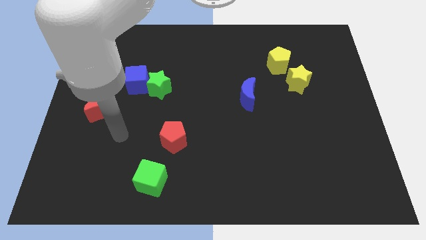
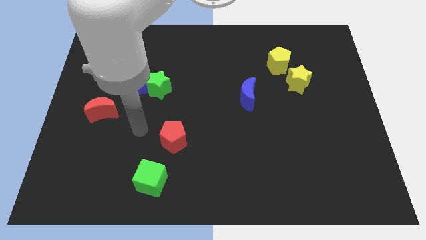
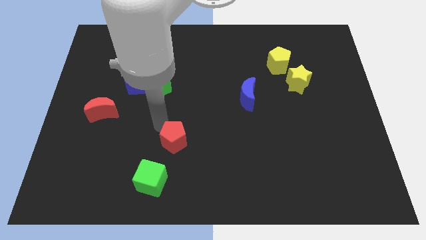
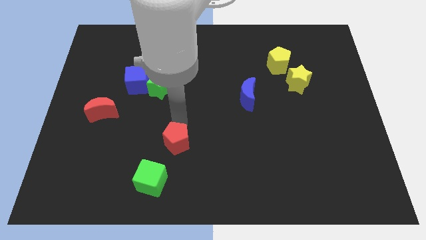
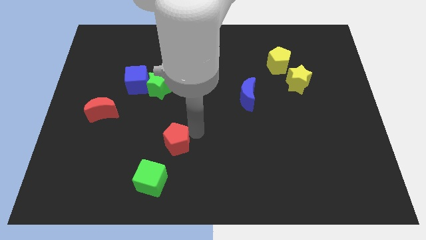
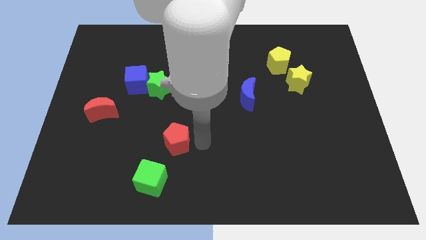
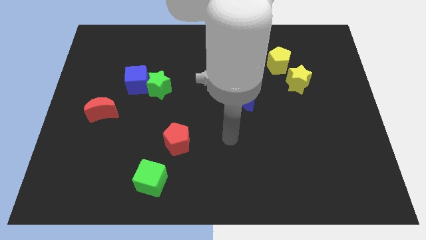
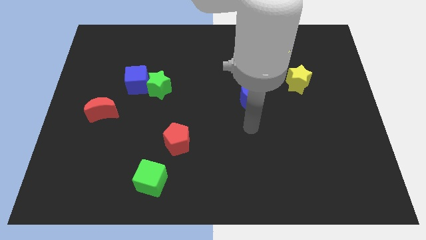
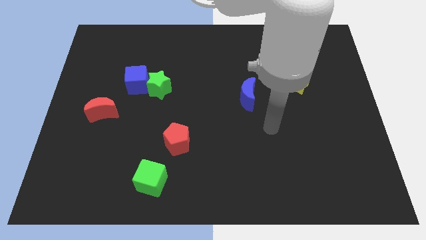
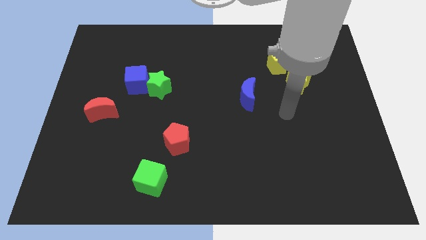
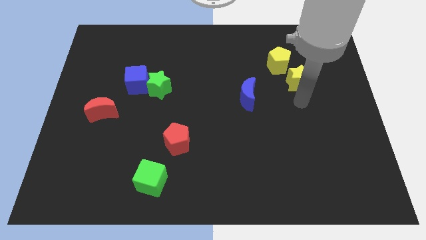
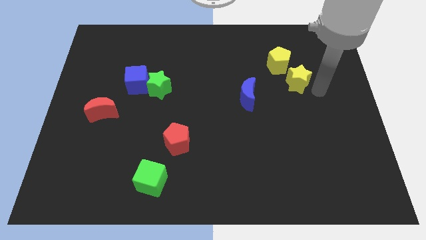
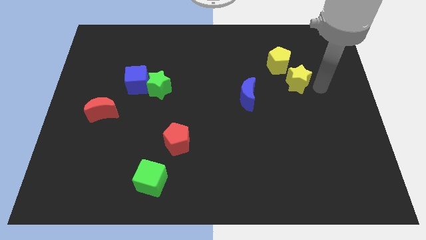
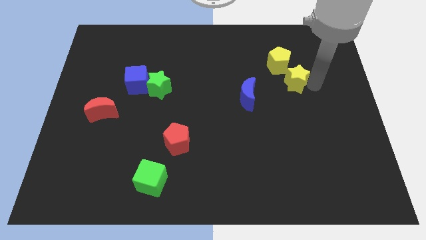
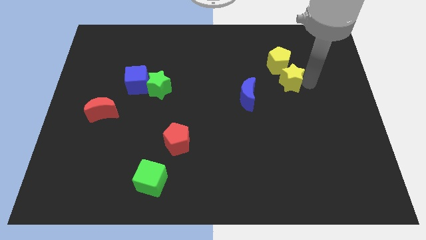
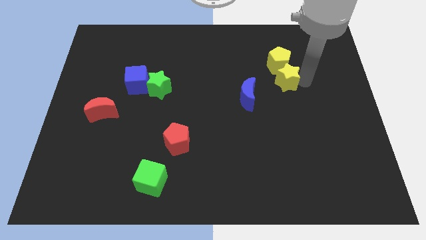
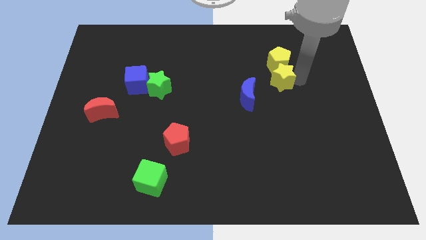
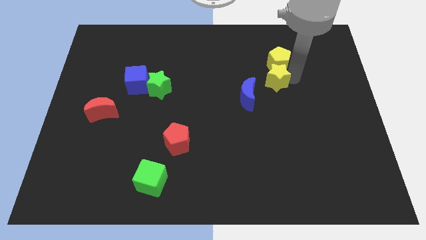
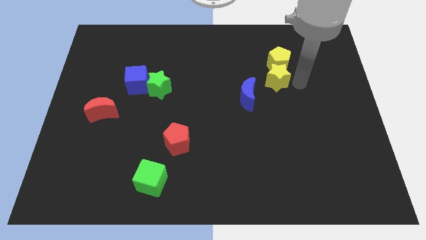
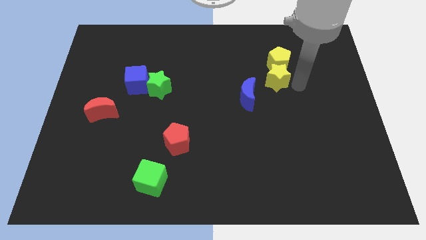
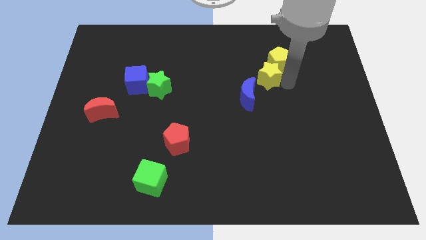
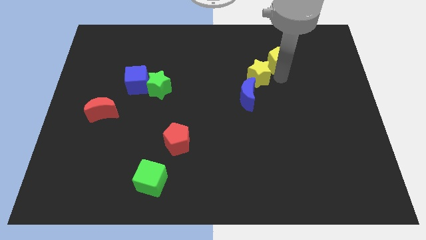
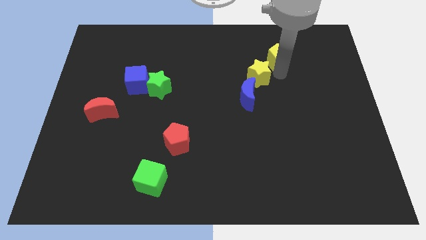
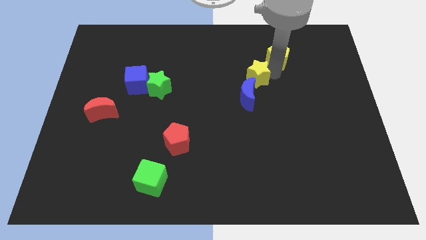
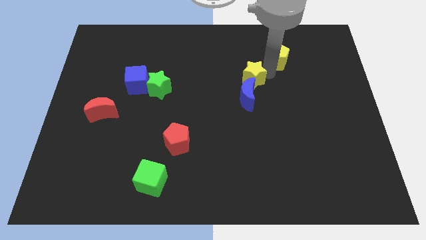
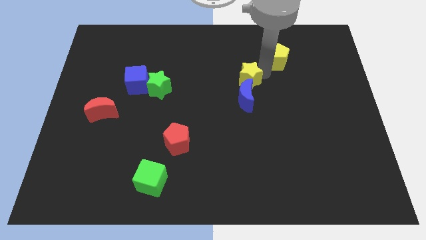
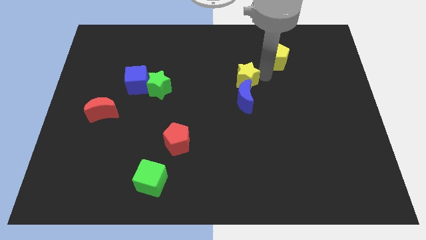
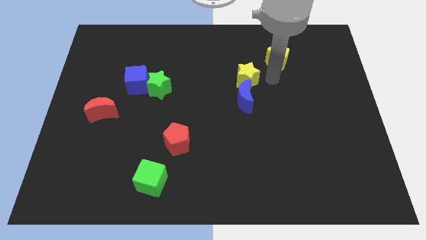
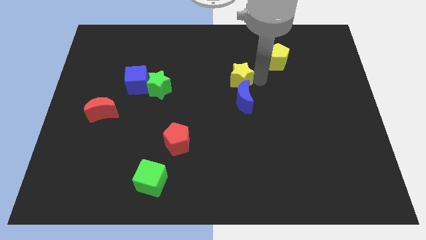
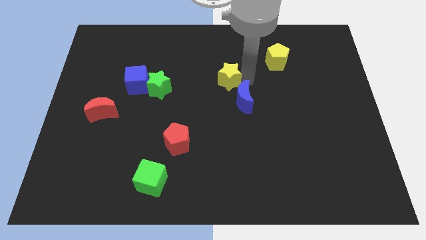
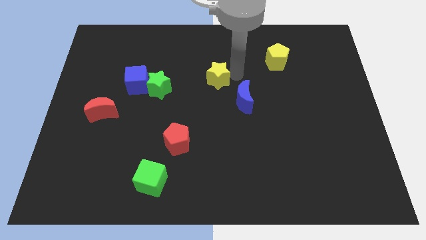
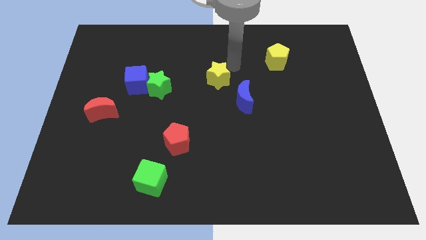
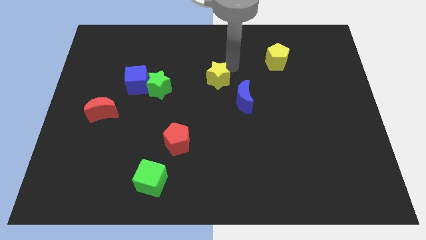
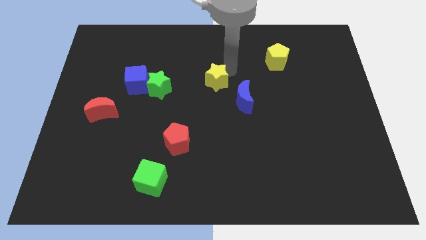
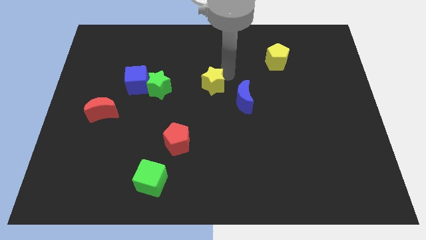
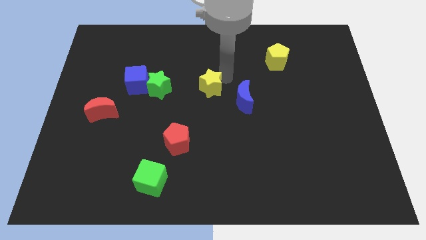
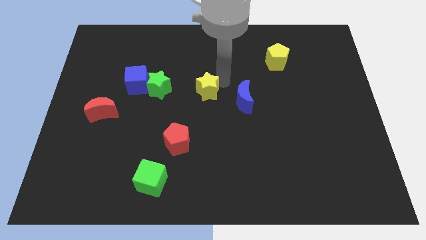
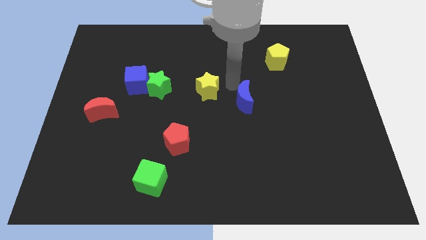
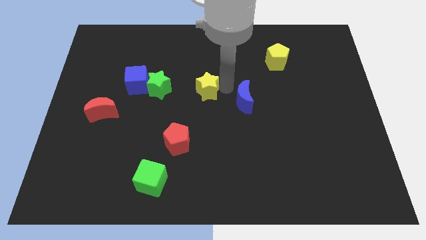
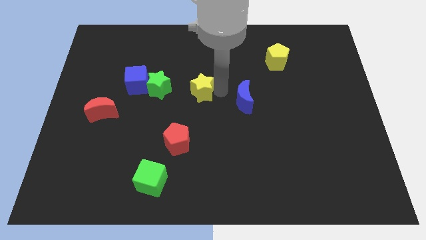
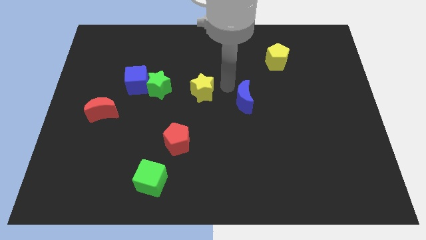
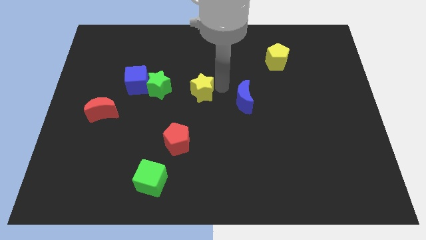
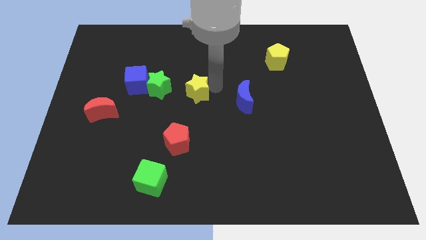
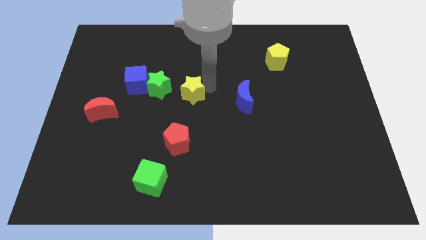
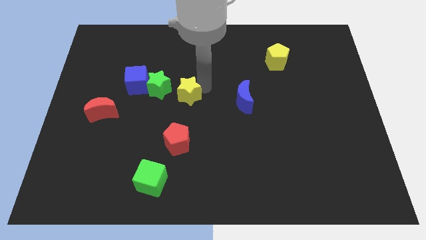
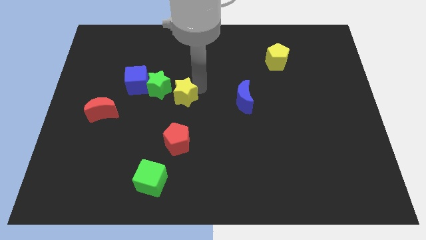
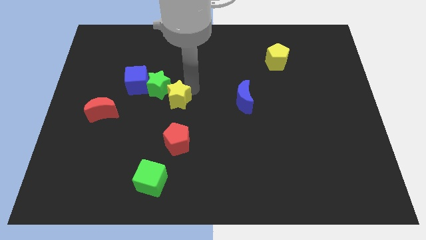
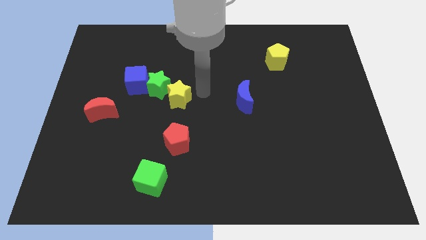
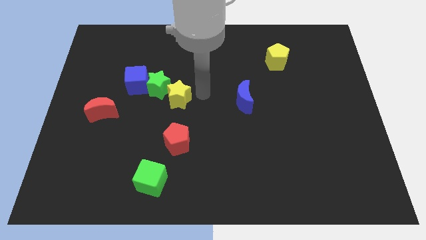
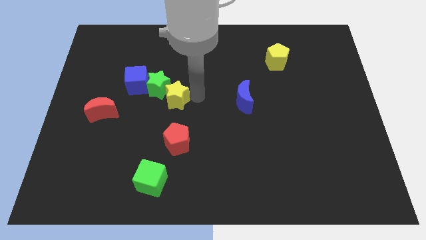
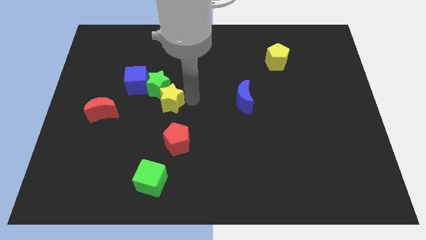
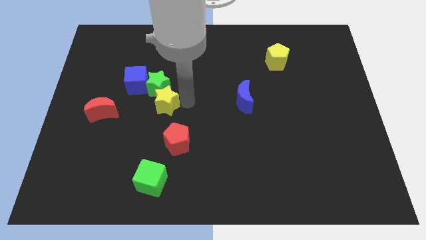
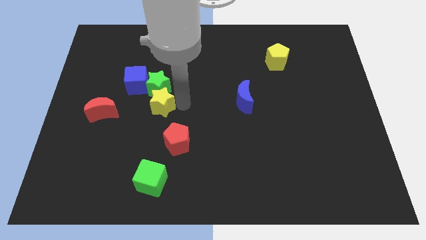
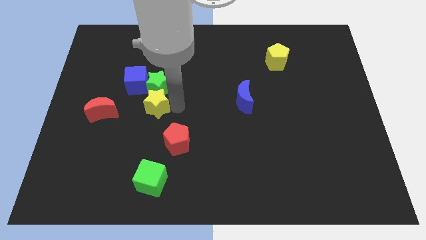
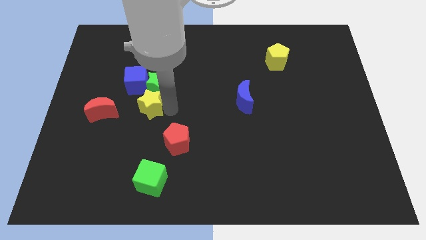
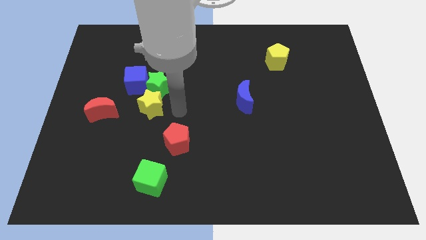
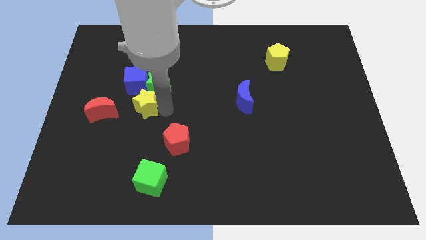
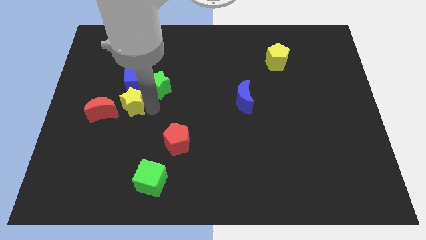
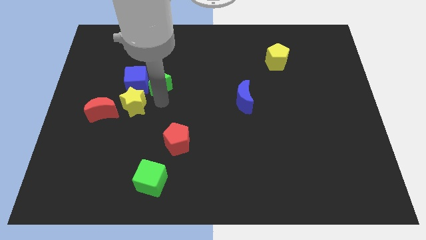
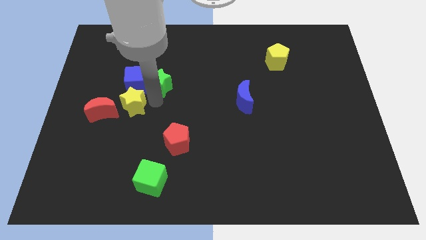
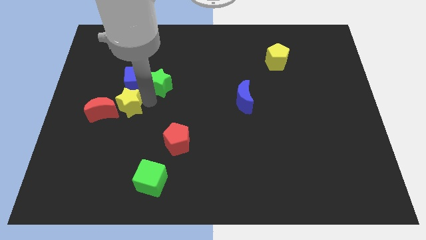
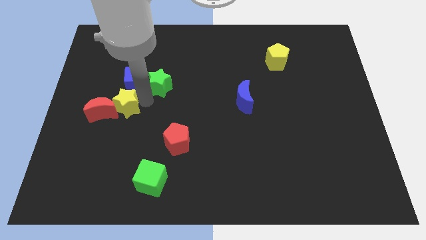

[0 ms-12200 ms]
put the yellow star next to the red moon

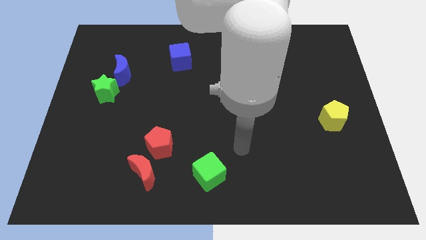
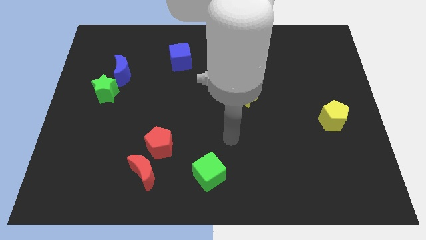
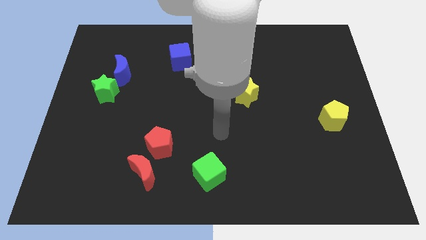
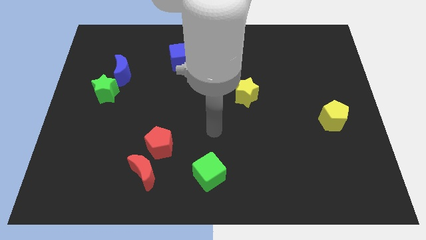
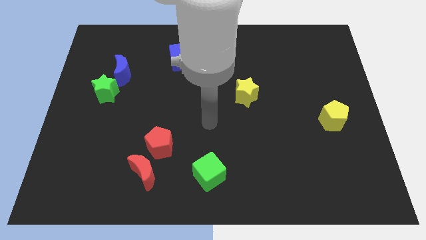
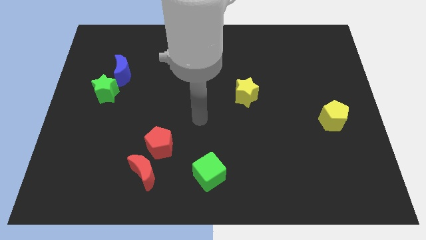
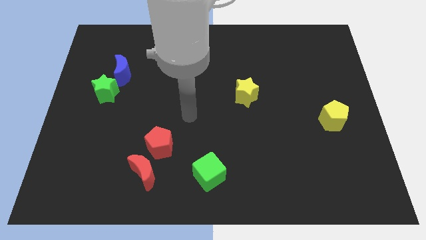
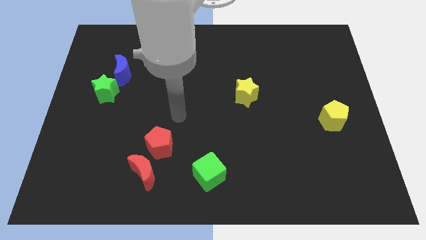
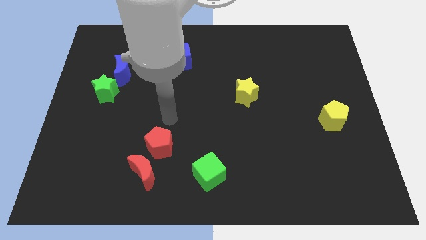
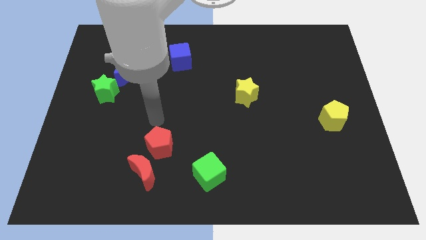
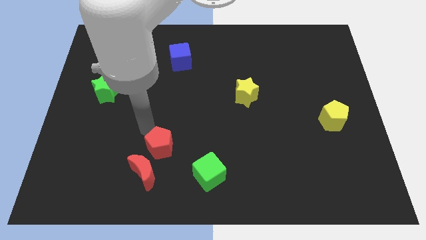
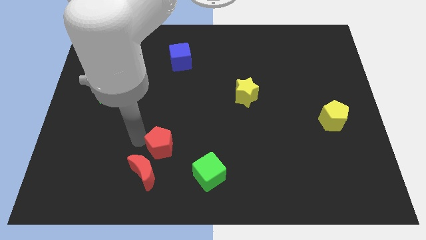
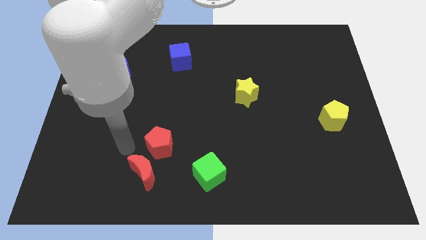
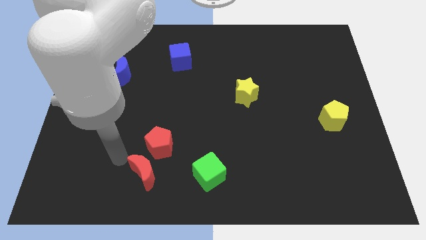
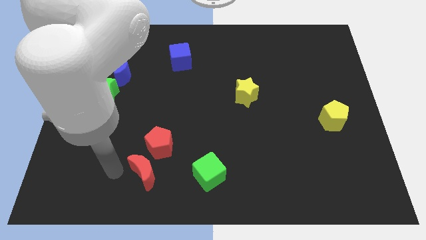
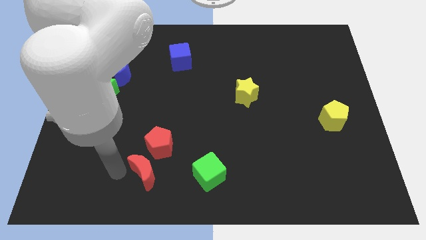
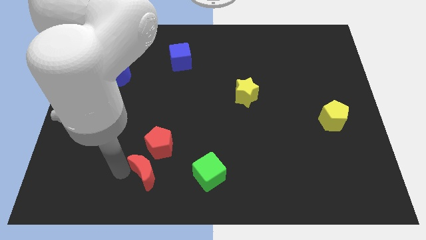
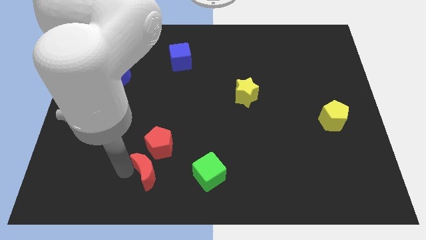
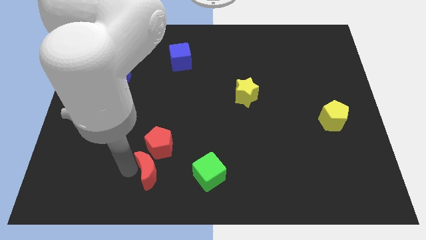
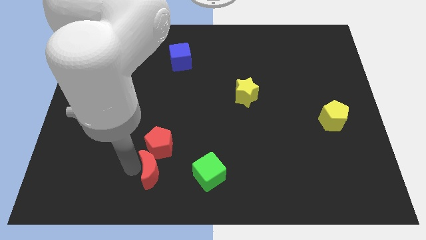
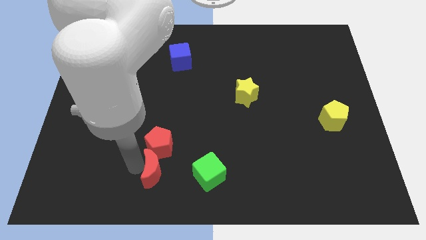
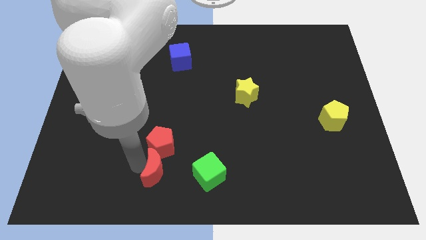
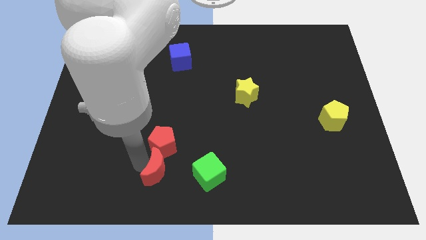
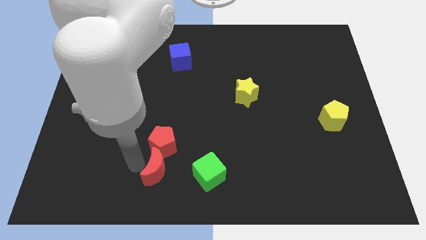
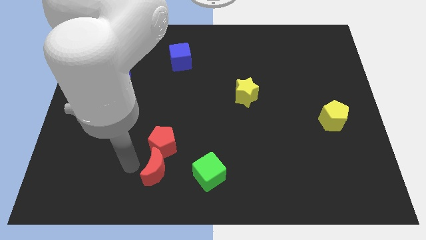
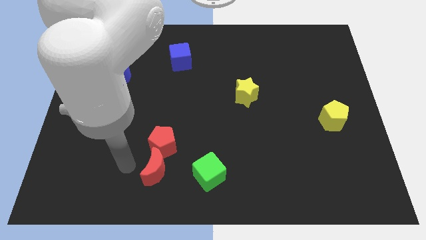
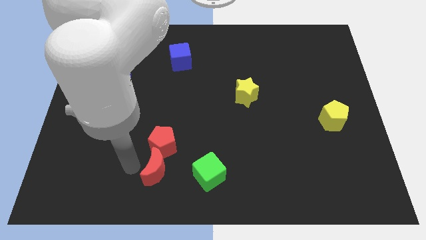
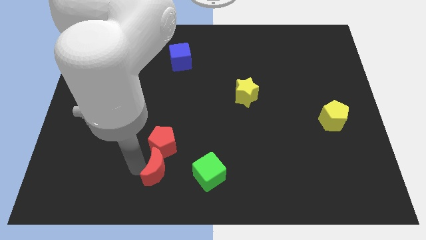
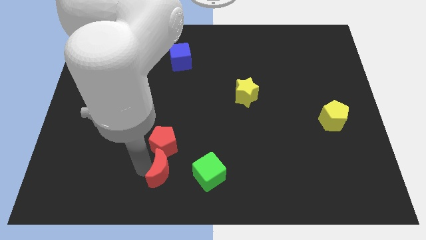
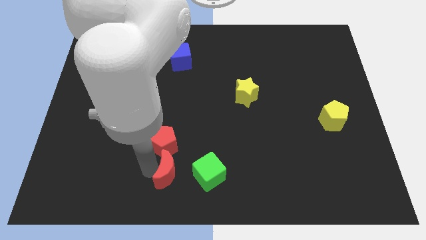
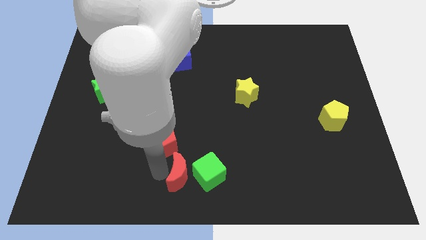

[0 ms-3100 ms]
put the red moon next to the green cube
